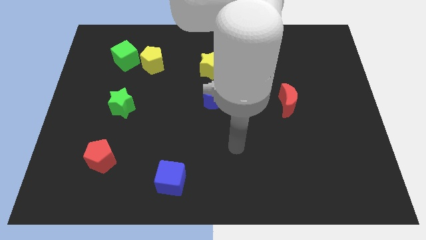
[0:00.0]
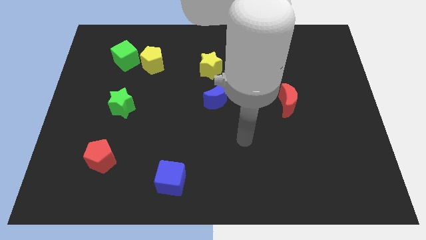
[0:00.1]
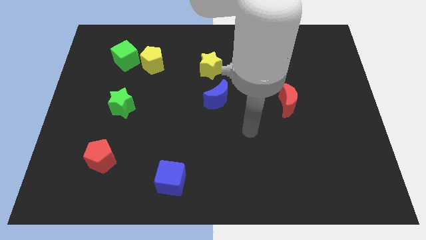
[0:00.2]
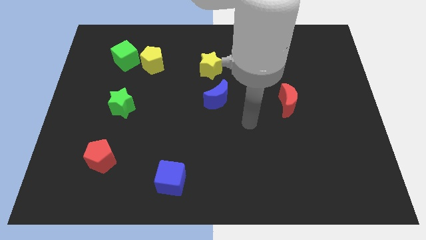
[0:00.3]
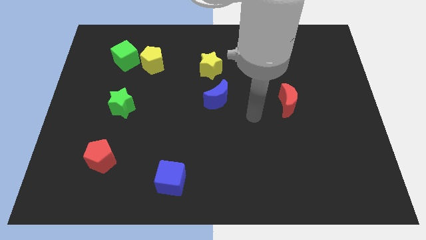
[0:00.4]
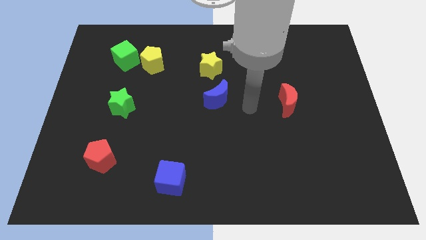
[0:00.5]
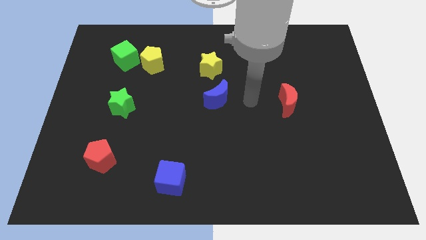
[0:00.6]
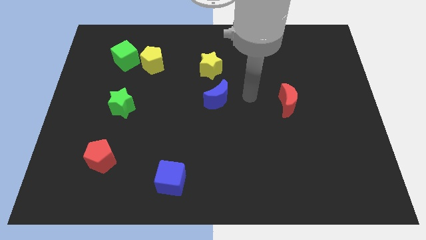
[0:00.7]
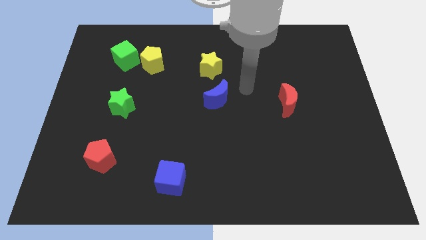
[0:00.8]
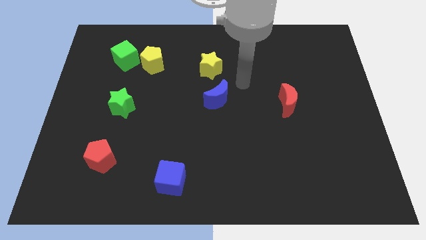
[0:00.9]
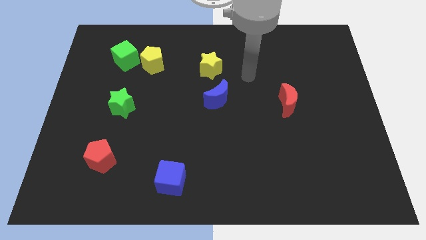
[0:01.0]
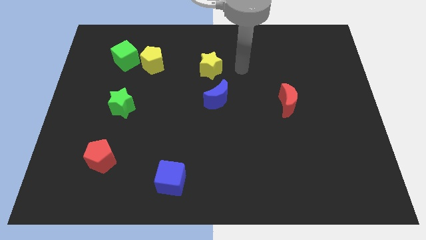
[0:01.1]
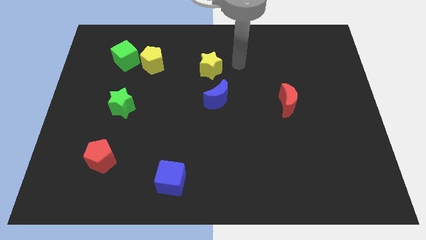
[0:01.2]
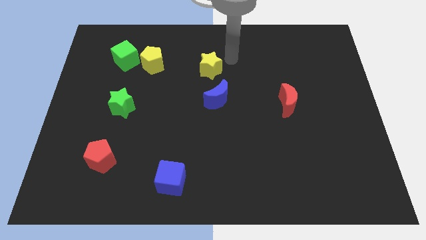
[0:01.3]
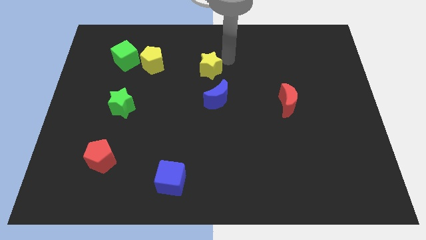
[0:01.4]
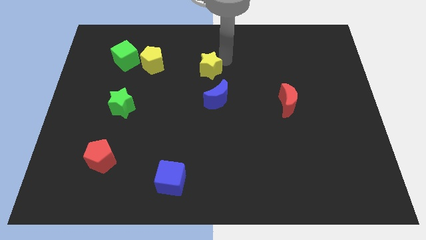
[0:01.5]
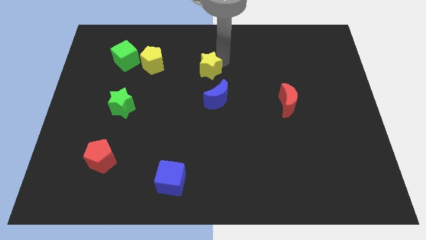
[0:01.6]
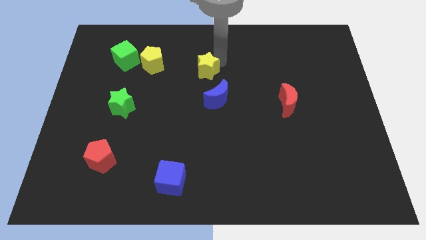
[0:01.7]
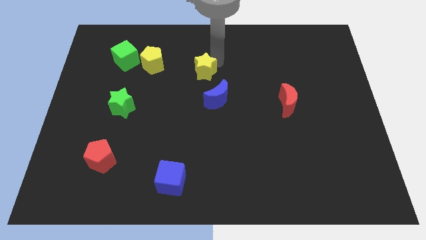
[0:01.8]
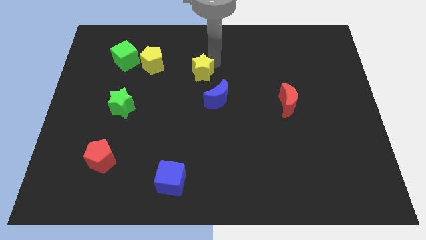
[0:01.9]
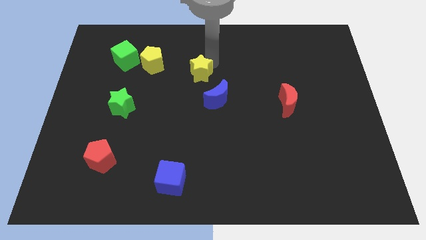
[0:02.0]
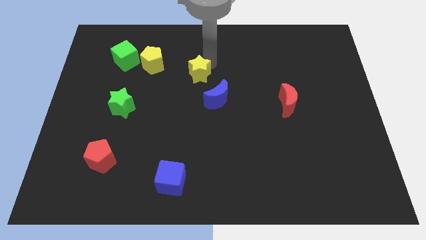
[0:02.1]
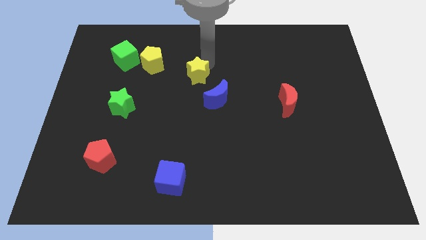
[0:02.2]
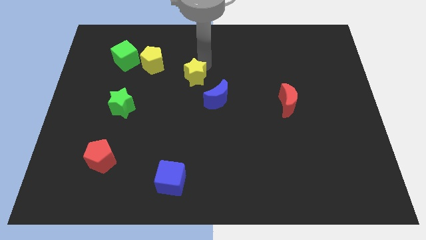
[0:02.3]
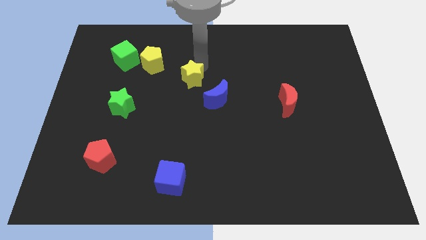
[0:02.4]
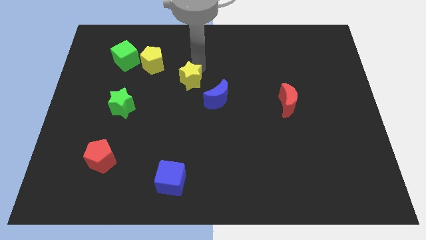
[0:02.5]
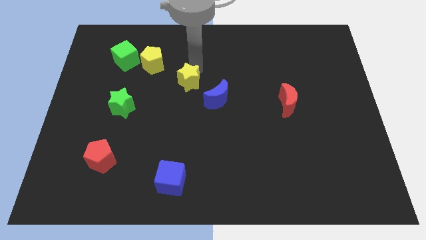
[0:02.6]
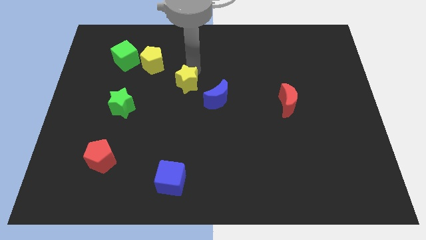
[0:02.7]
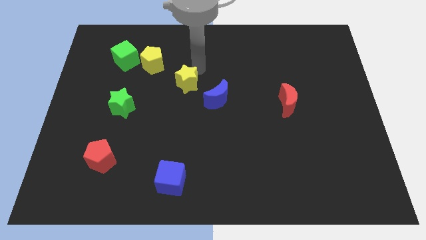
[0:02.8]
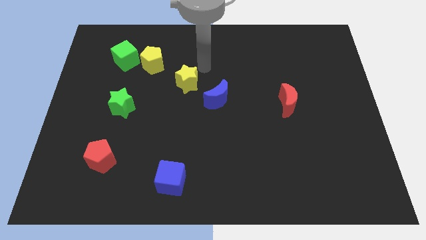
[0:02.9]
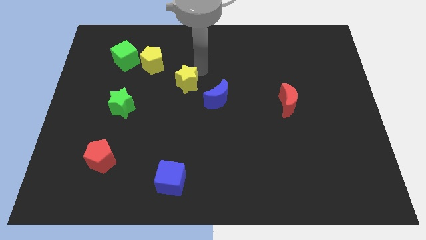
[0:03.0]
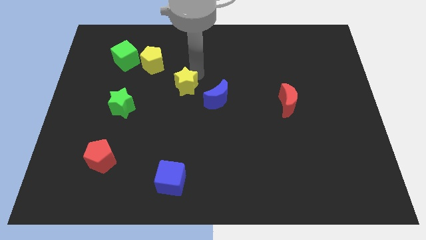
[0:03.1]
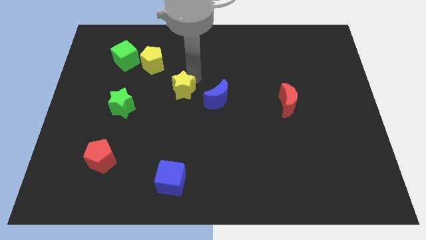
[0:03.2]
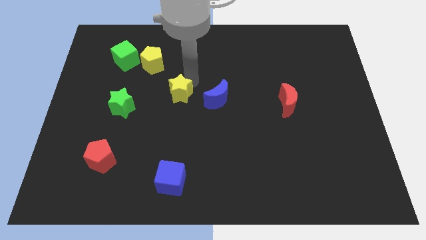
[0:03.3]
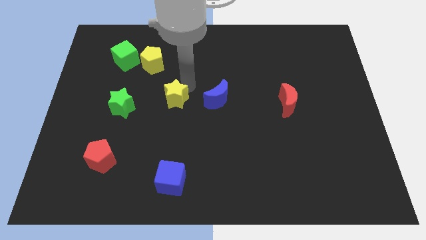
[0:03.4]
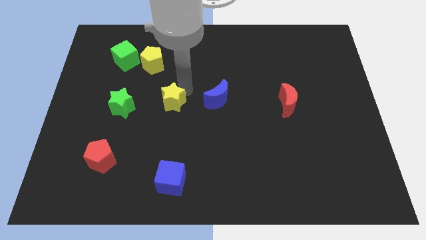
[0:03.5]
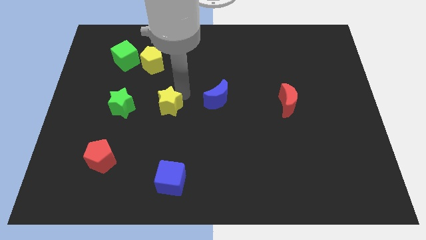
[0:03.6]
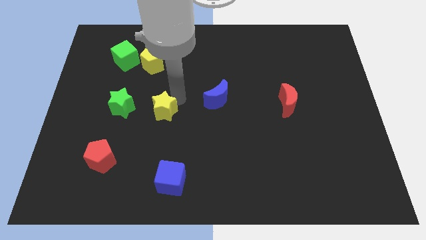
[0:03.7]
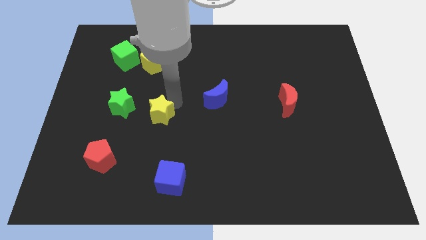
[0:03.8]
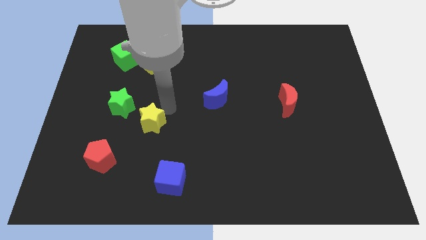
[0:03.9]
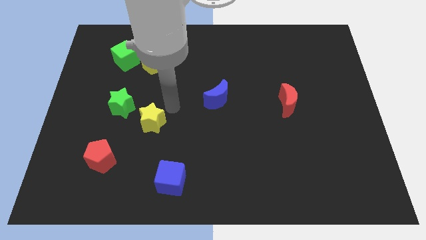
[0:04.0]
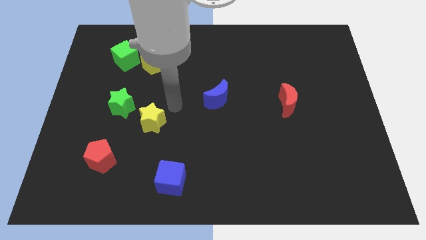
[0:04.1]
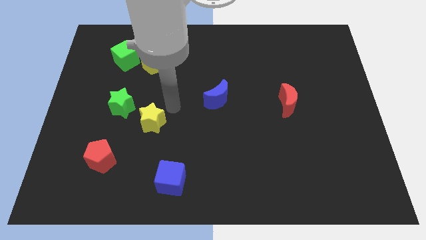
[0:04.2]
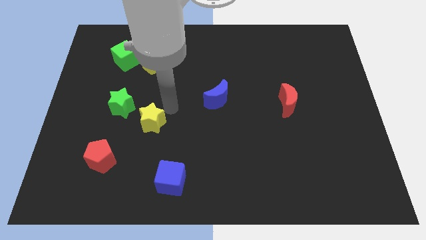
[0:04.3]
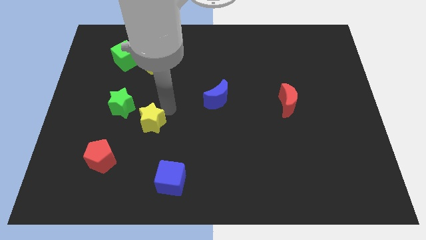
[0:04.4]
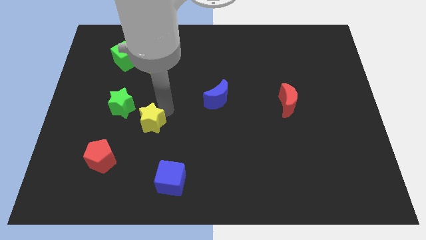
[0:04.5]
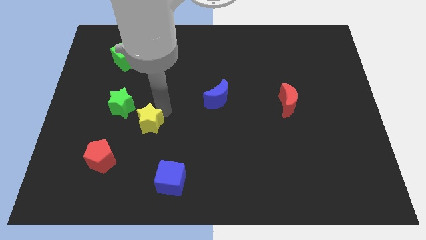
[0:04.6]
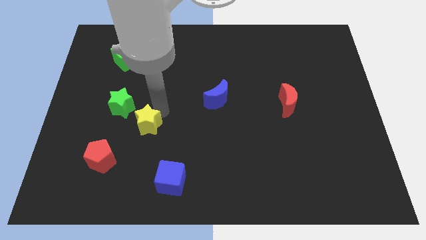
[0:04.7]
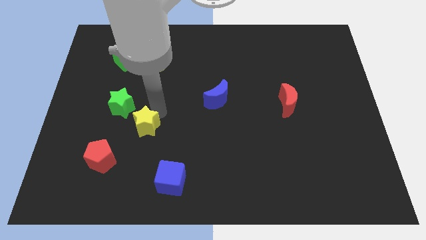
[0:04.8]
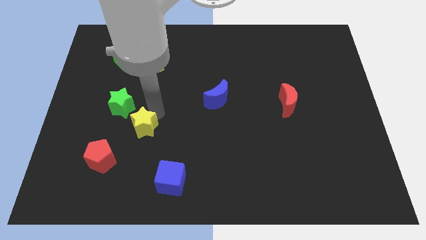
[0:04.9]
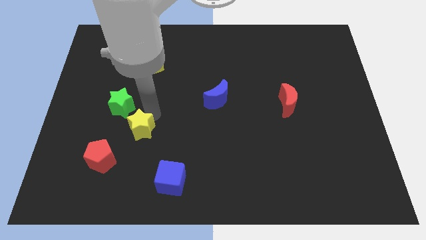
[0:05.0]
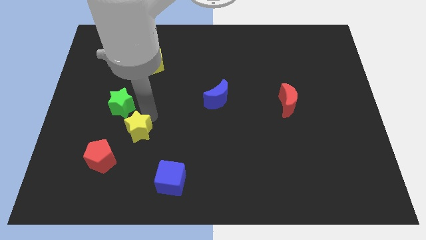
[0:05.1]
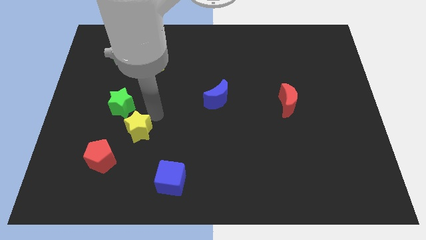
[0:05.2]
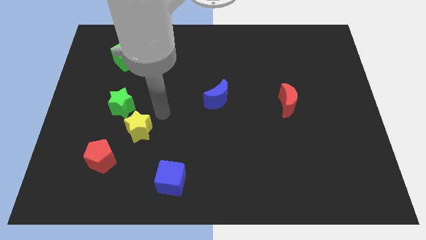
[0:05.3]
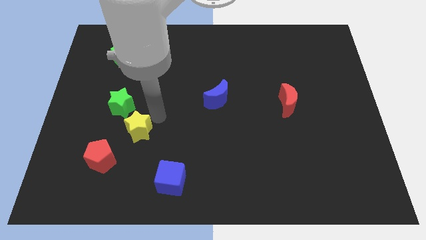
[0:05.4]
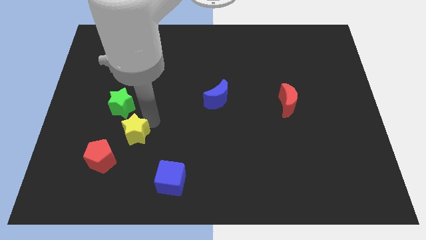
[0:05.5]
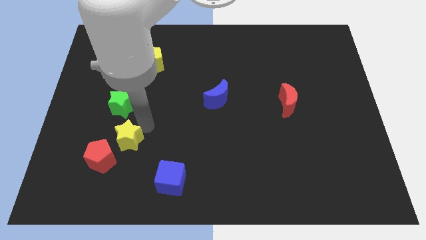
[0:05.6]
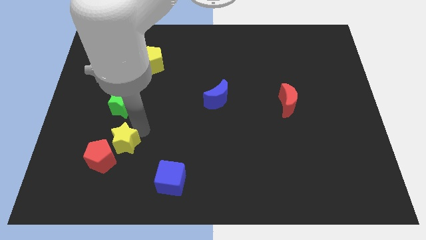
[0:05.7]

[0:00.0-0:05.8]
move the yellow star next to the red pentagon

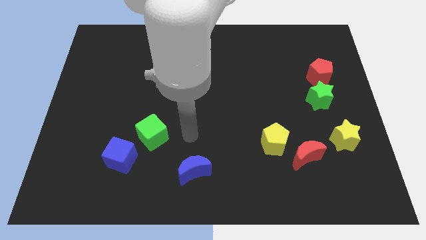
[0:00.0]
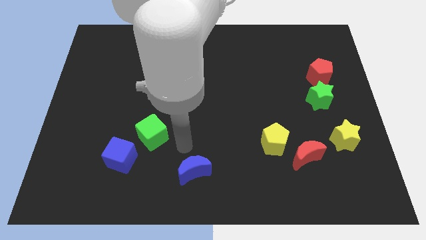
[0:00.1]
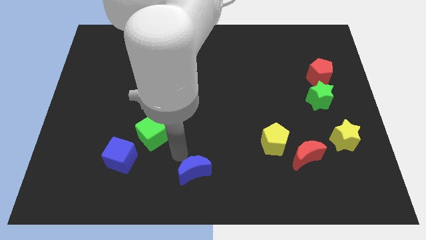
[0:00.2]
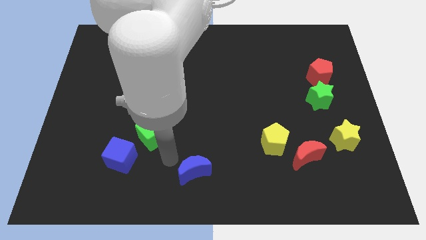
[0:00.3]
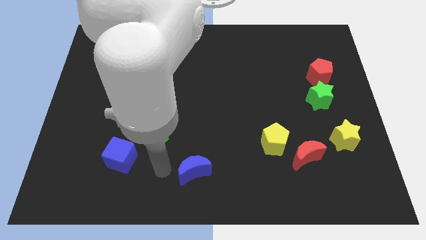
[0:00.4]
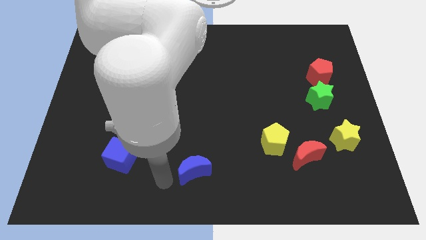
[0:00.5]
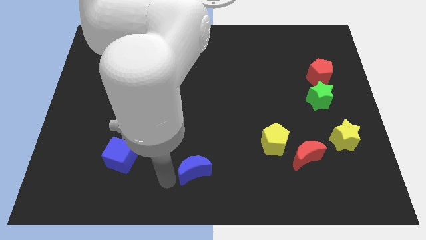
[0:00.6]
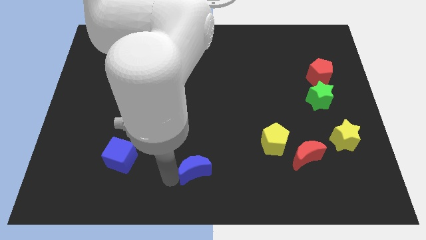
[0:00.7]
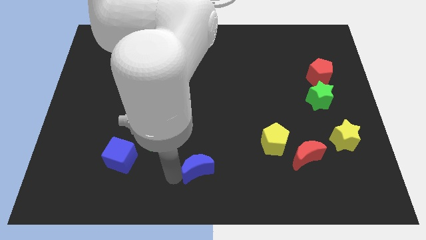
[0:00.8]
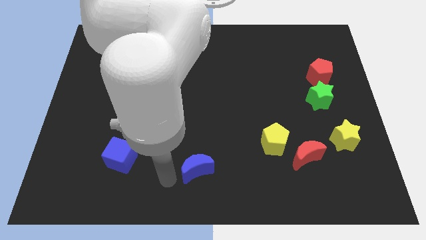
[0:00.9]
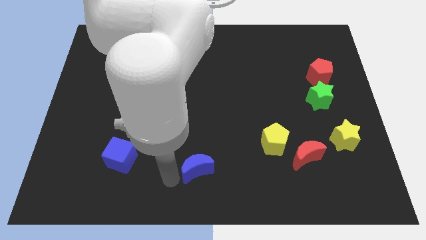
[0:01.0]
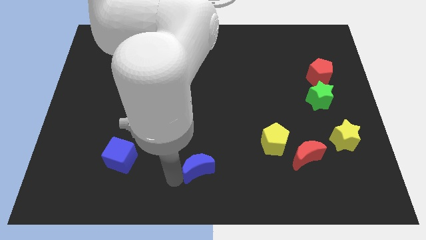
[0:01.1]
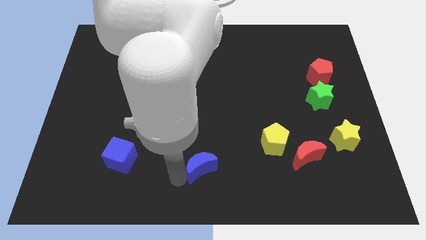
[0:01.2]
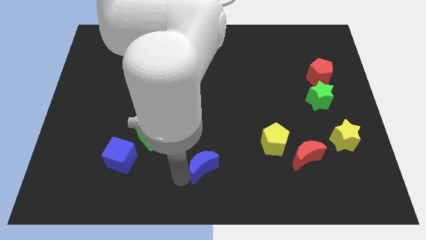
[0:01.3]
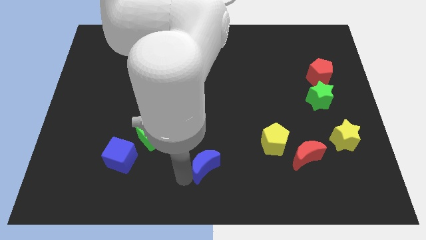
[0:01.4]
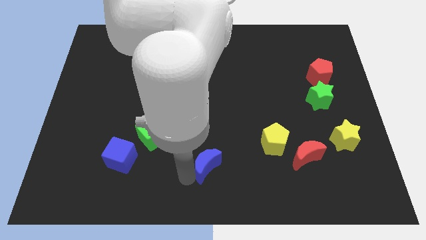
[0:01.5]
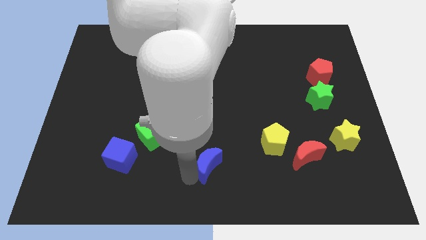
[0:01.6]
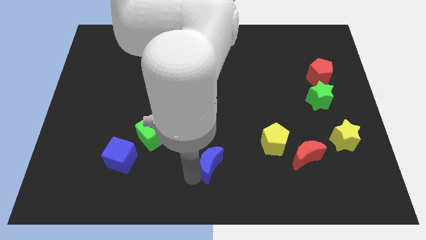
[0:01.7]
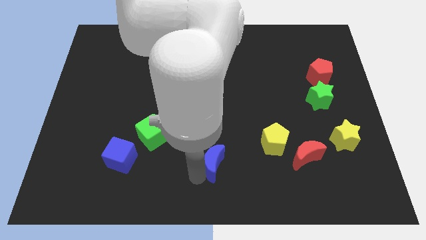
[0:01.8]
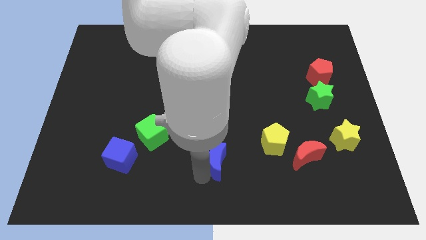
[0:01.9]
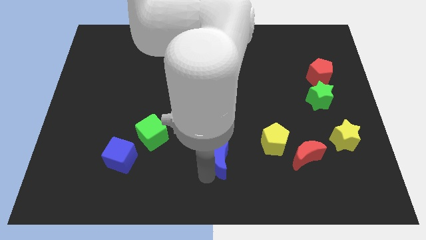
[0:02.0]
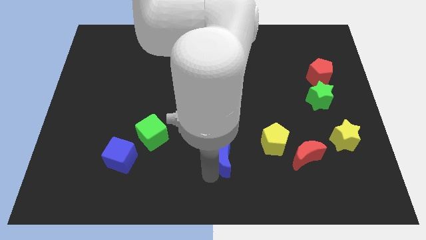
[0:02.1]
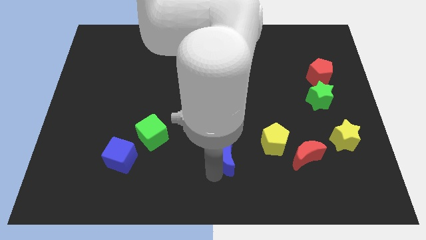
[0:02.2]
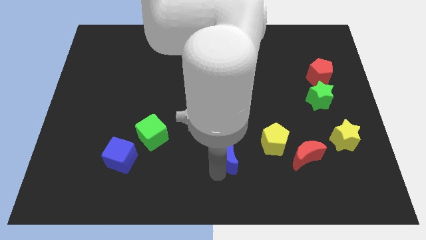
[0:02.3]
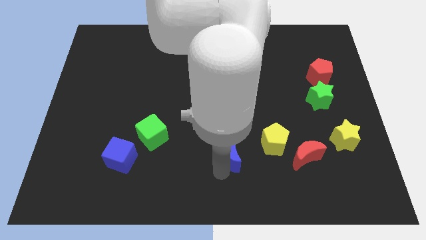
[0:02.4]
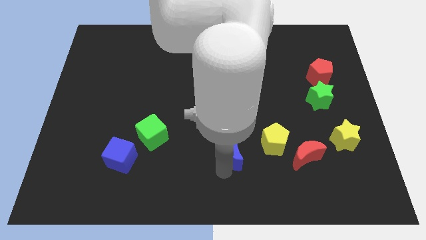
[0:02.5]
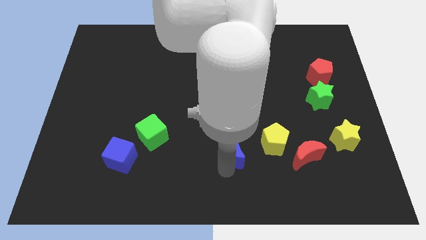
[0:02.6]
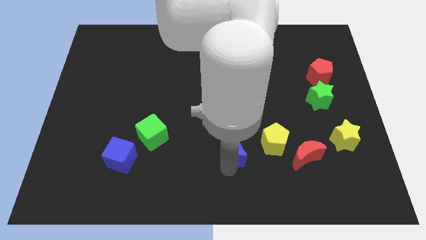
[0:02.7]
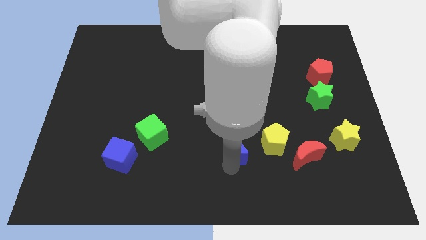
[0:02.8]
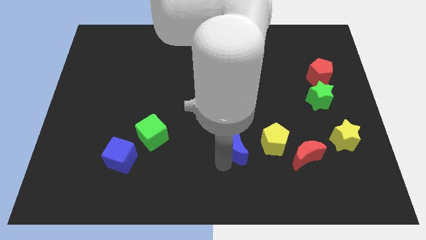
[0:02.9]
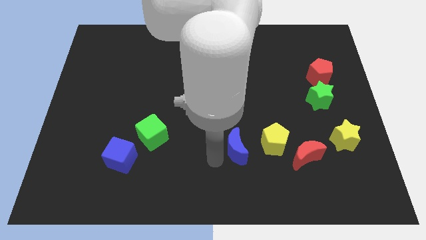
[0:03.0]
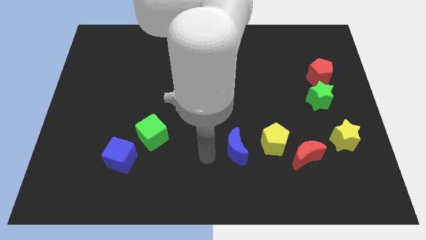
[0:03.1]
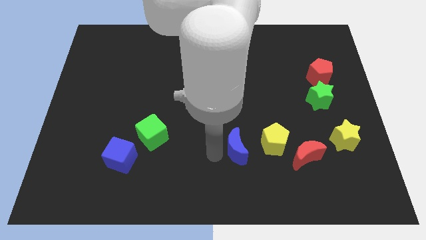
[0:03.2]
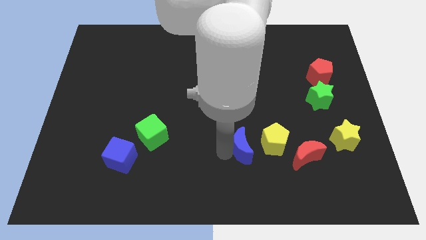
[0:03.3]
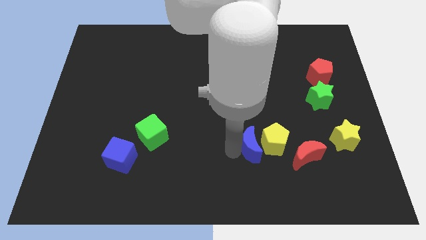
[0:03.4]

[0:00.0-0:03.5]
slide the blue moon close to the yellow pentagon
